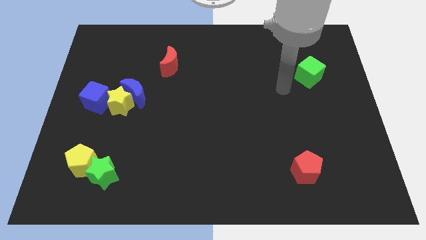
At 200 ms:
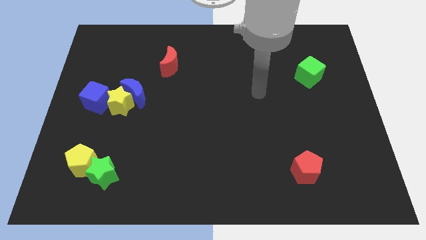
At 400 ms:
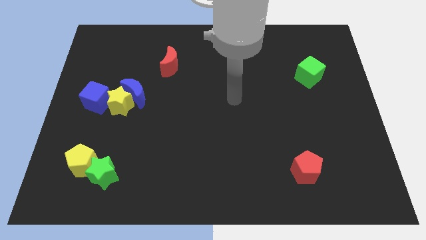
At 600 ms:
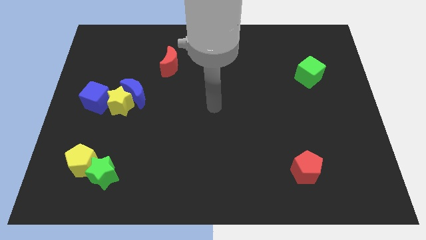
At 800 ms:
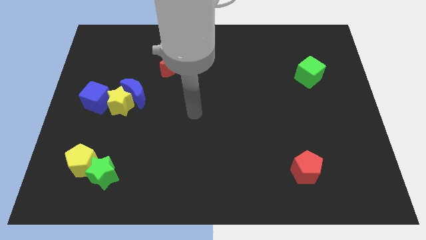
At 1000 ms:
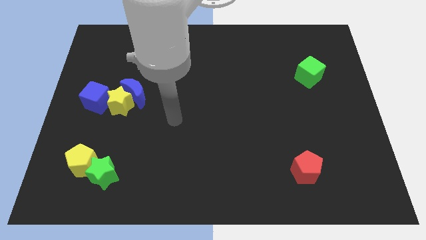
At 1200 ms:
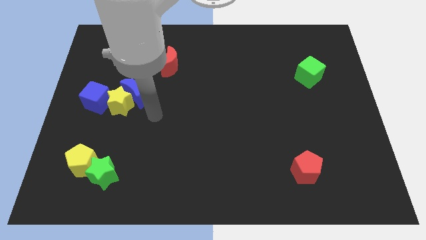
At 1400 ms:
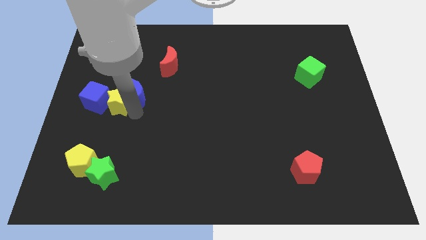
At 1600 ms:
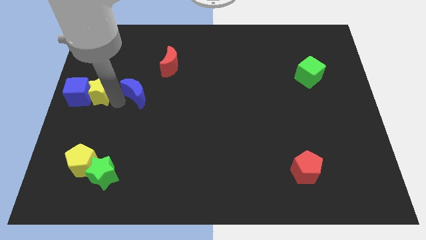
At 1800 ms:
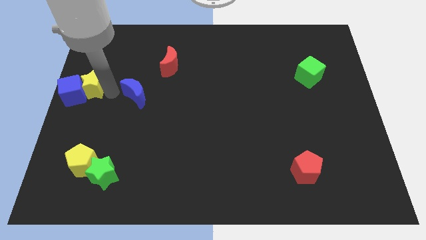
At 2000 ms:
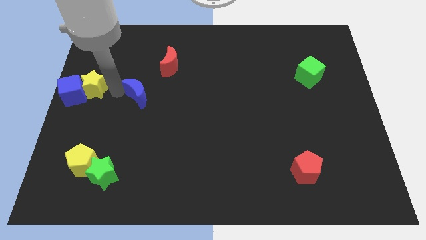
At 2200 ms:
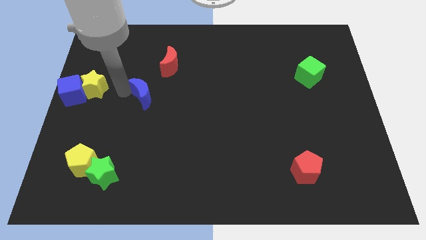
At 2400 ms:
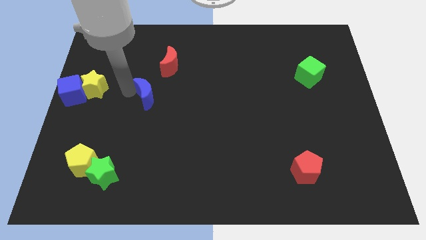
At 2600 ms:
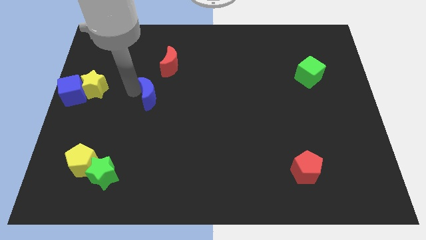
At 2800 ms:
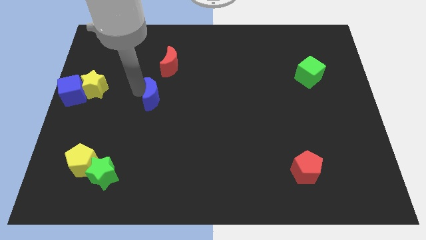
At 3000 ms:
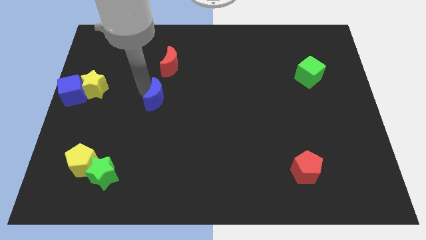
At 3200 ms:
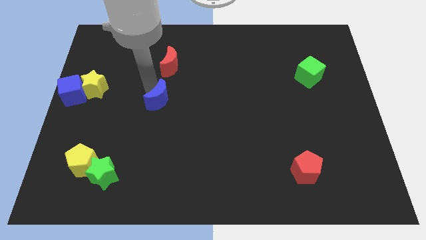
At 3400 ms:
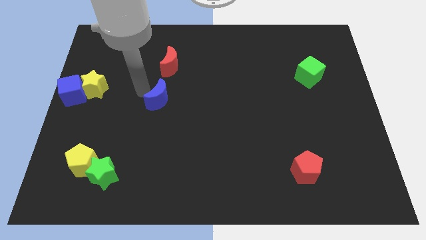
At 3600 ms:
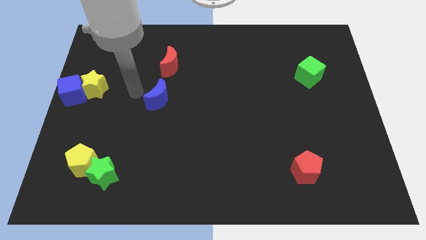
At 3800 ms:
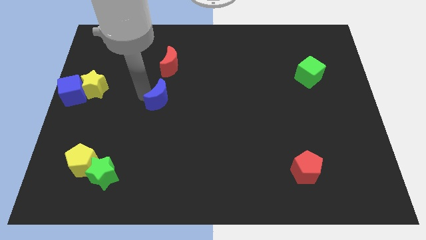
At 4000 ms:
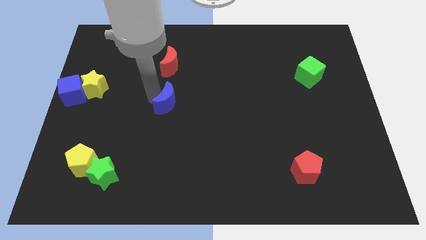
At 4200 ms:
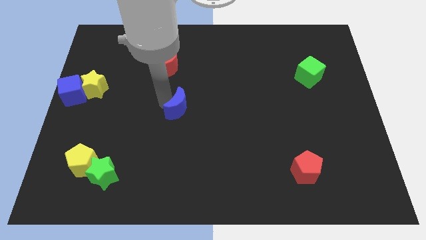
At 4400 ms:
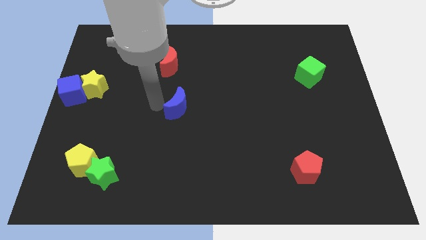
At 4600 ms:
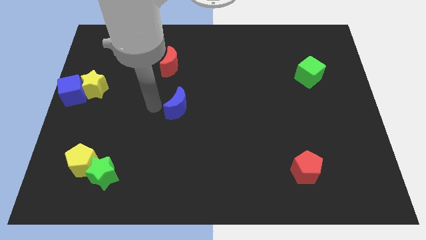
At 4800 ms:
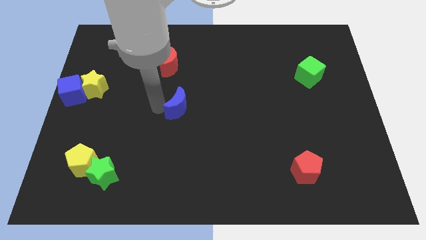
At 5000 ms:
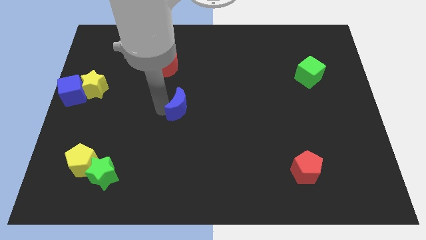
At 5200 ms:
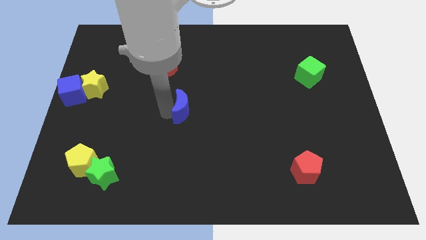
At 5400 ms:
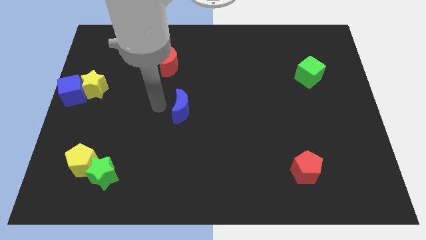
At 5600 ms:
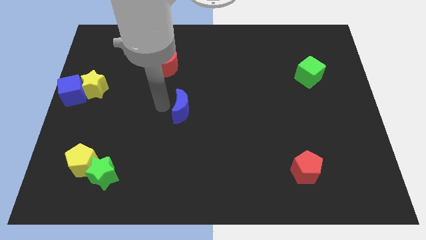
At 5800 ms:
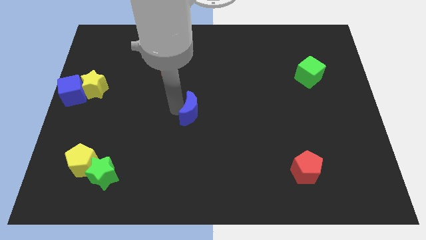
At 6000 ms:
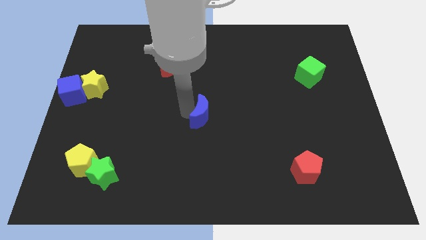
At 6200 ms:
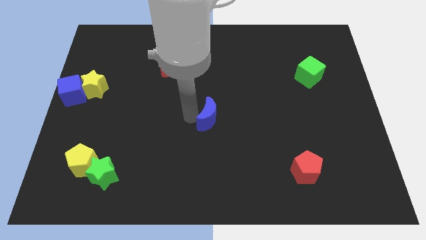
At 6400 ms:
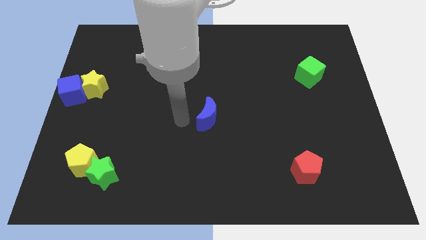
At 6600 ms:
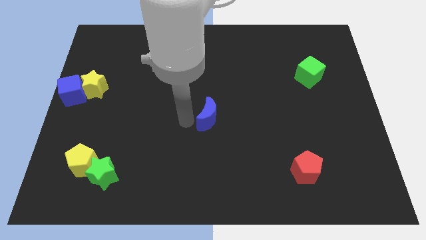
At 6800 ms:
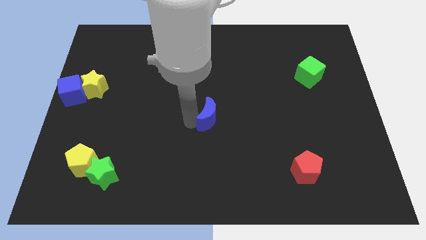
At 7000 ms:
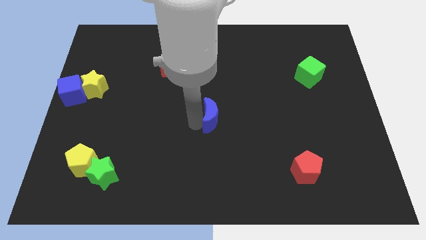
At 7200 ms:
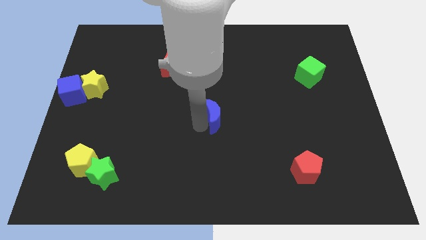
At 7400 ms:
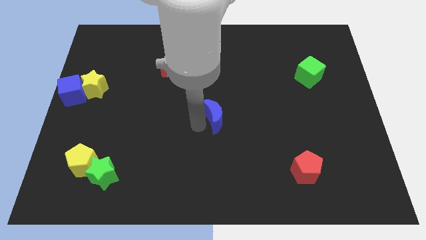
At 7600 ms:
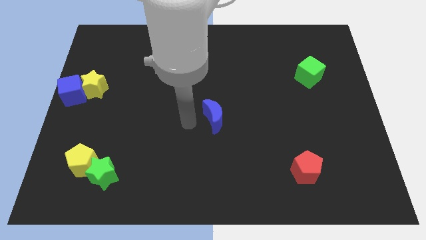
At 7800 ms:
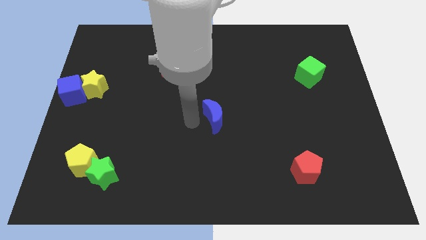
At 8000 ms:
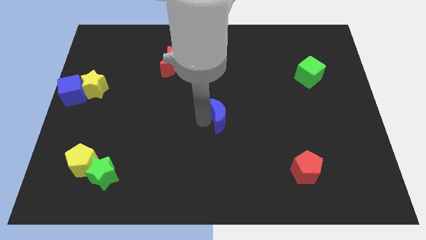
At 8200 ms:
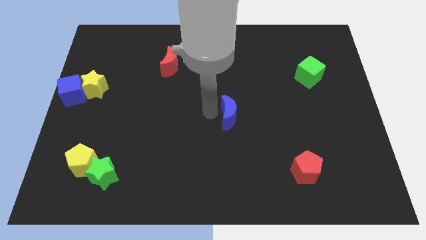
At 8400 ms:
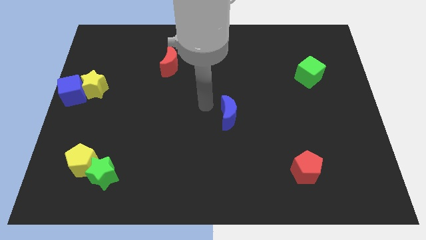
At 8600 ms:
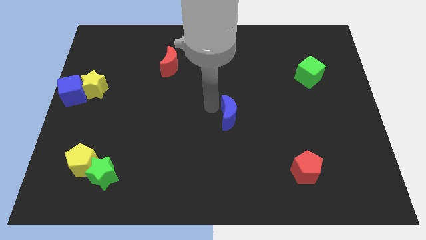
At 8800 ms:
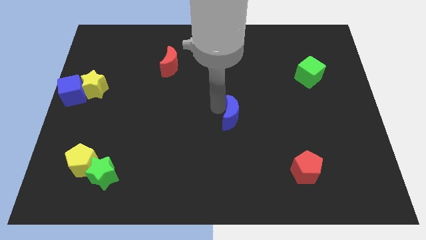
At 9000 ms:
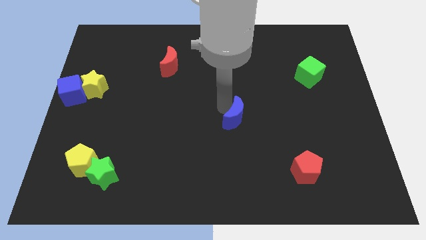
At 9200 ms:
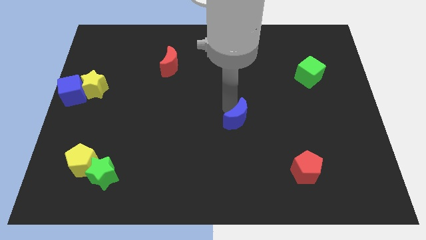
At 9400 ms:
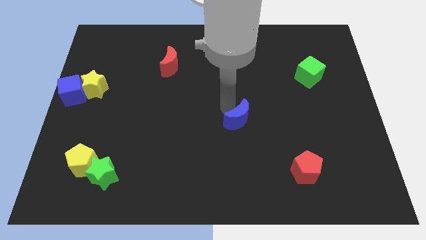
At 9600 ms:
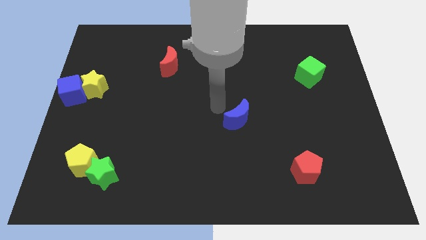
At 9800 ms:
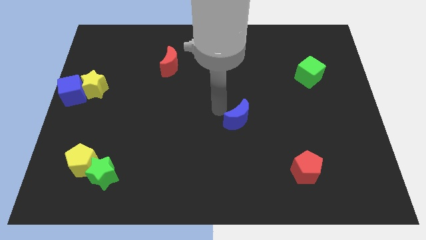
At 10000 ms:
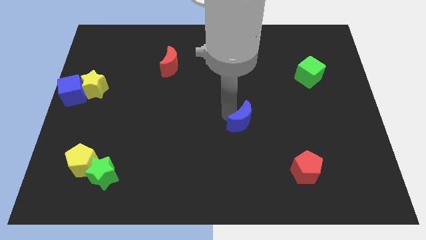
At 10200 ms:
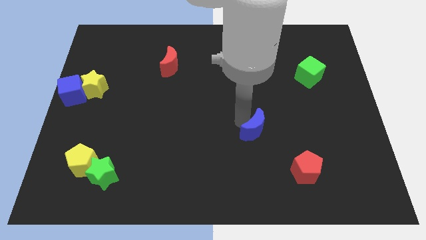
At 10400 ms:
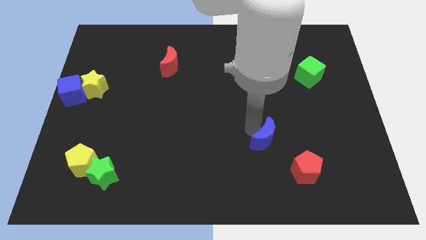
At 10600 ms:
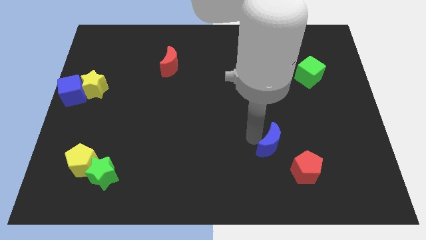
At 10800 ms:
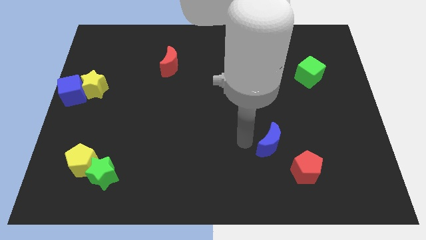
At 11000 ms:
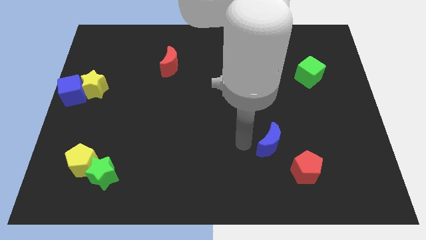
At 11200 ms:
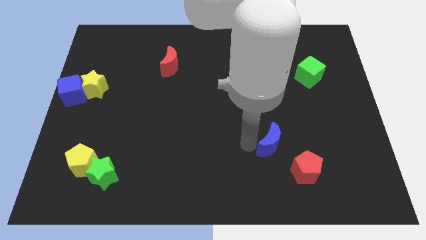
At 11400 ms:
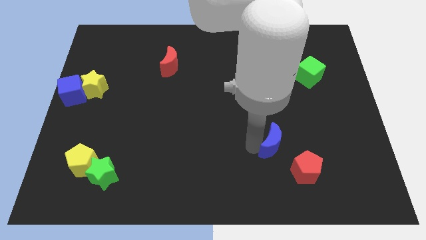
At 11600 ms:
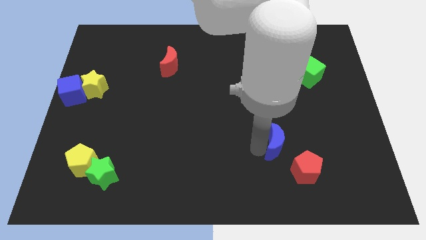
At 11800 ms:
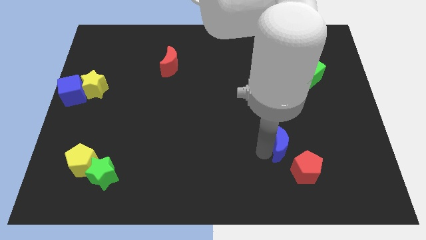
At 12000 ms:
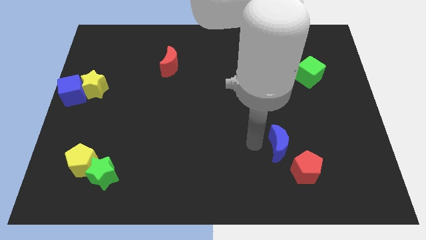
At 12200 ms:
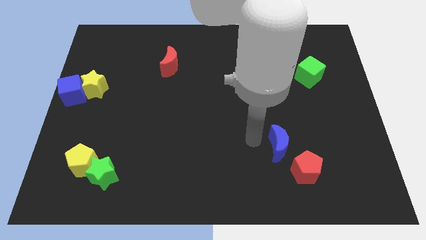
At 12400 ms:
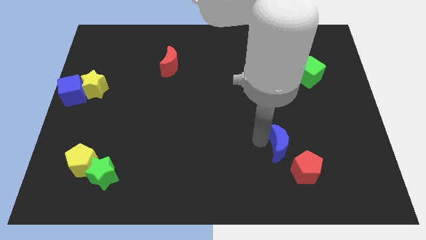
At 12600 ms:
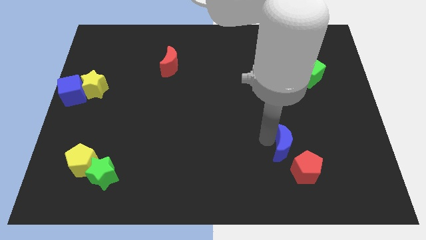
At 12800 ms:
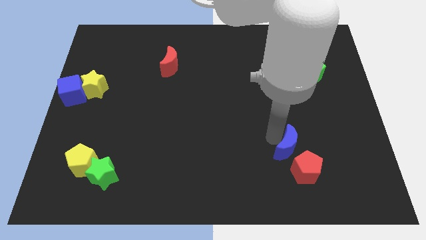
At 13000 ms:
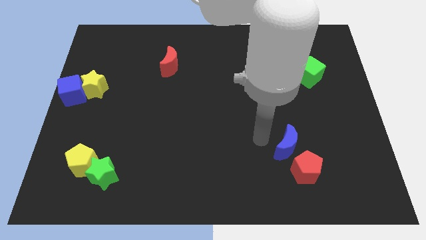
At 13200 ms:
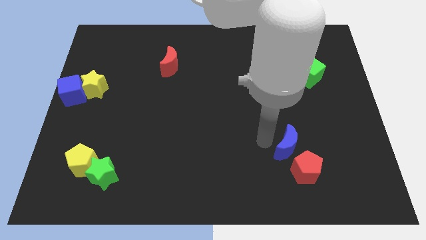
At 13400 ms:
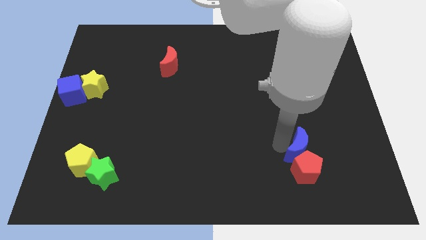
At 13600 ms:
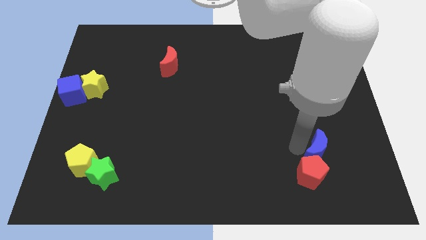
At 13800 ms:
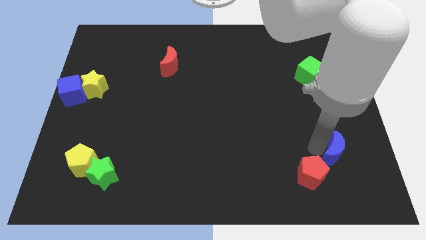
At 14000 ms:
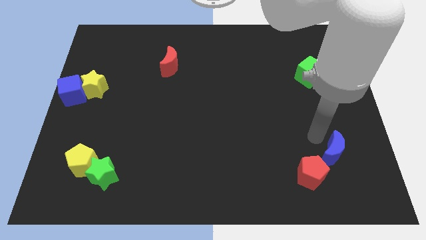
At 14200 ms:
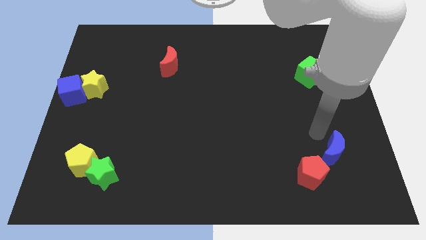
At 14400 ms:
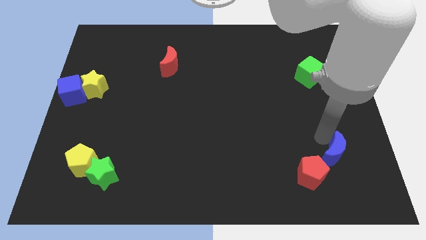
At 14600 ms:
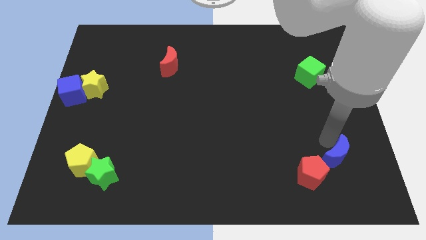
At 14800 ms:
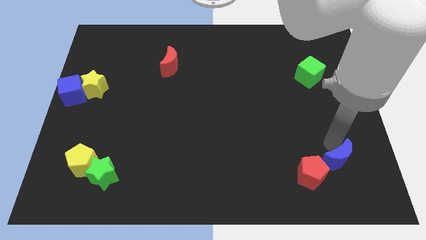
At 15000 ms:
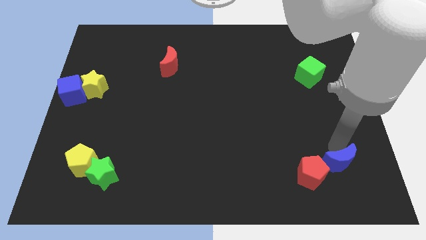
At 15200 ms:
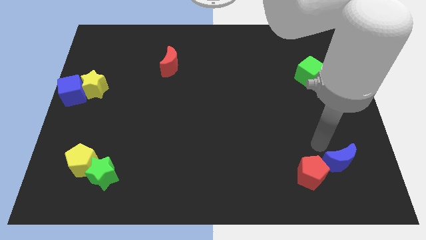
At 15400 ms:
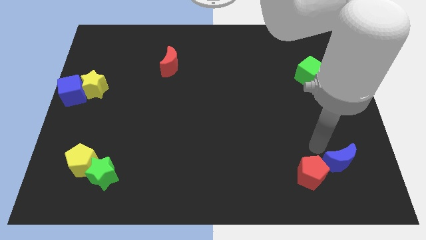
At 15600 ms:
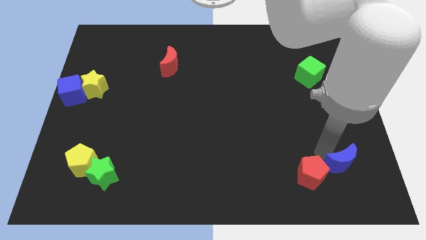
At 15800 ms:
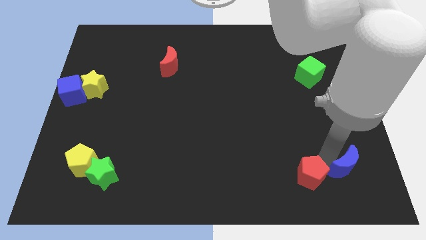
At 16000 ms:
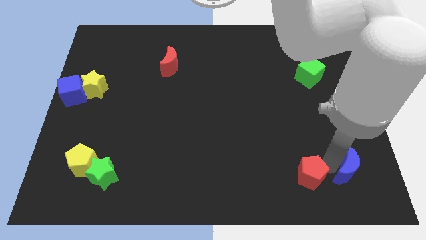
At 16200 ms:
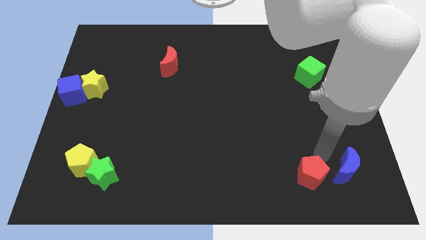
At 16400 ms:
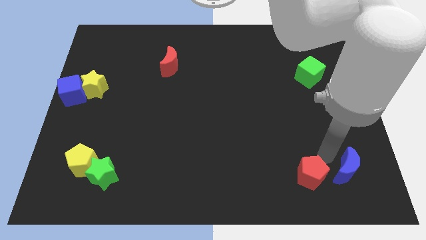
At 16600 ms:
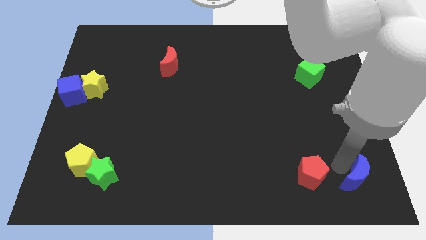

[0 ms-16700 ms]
put the blue moon to the bottom right corner
